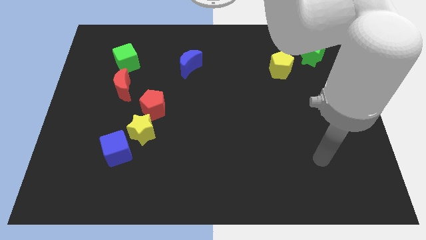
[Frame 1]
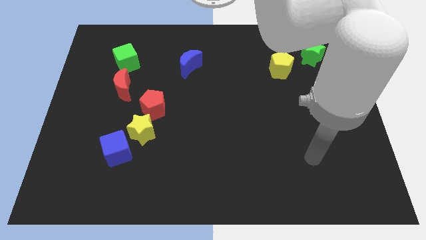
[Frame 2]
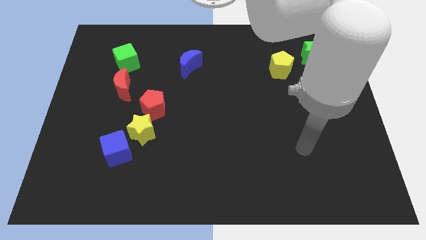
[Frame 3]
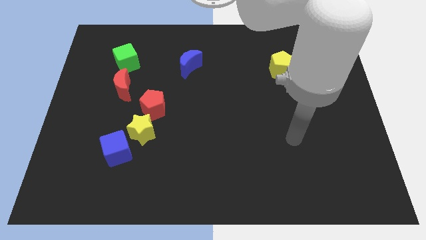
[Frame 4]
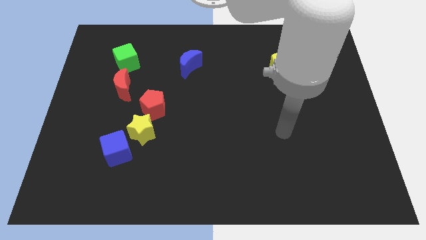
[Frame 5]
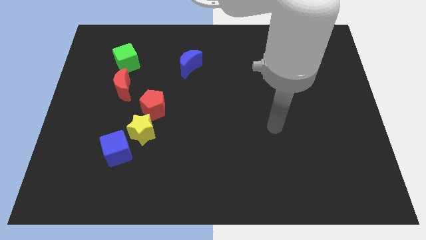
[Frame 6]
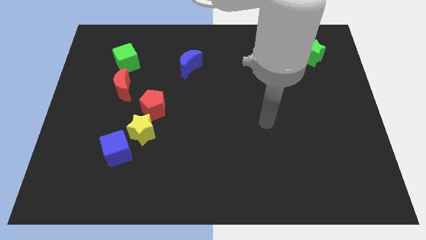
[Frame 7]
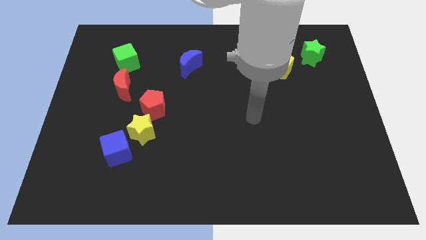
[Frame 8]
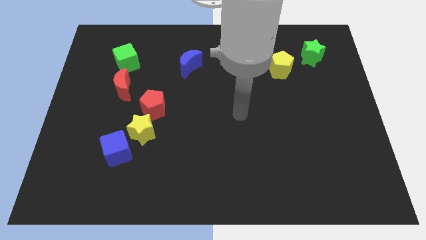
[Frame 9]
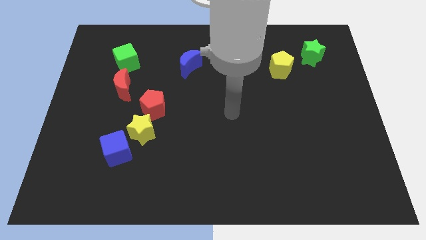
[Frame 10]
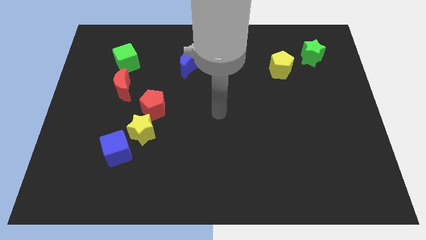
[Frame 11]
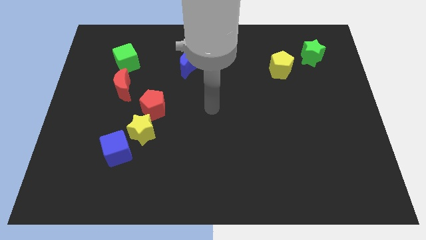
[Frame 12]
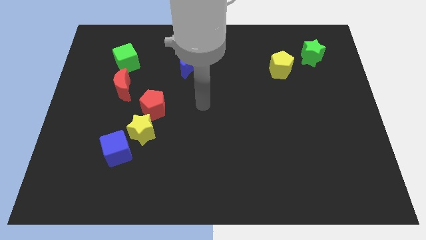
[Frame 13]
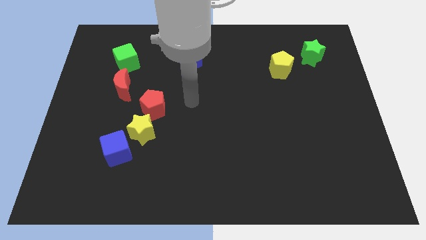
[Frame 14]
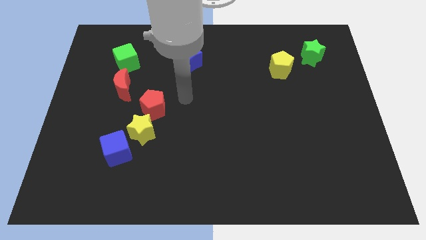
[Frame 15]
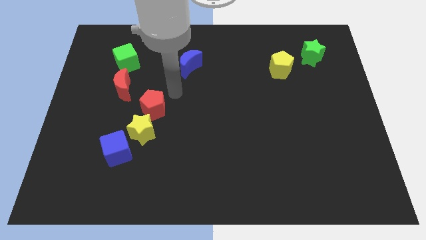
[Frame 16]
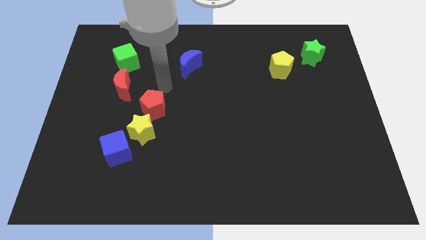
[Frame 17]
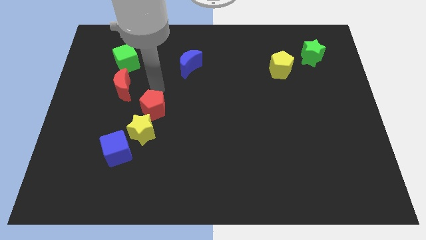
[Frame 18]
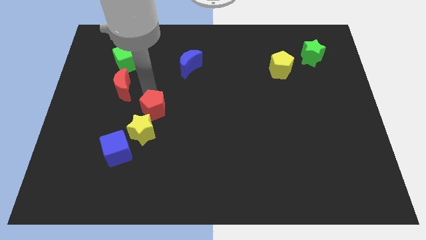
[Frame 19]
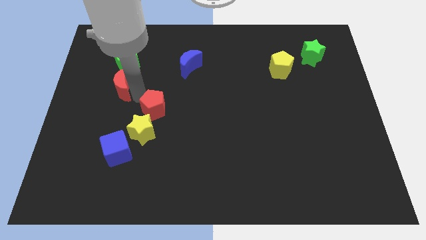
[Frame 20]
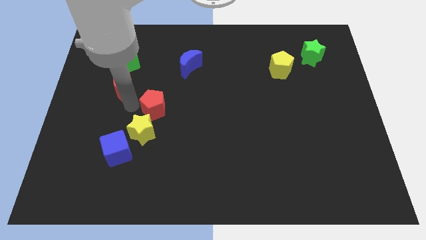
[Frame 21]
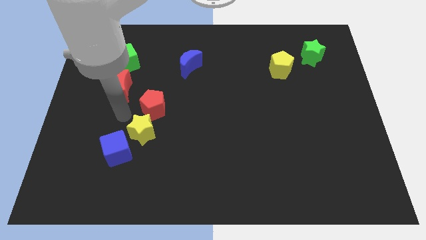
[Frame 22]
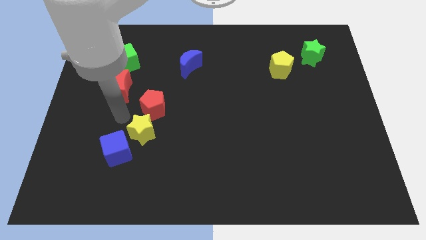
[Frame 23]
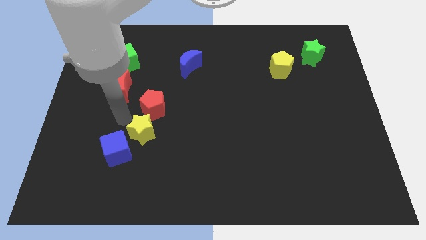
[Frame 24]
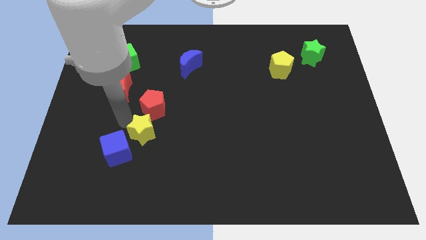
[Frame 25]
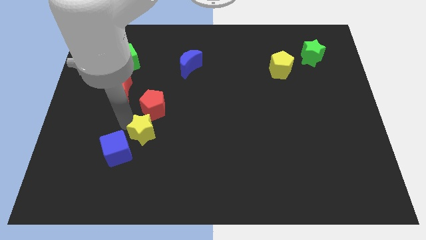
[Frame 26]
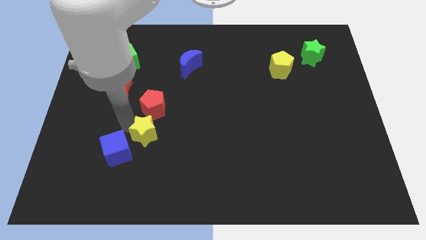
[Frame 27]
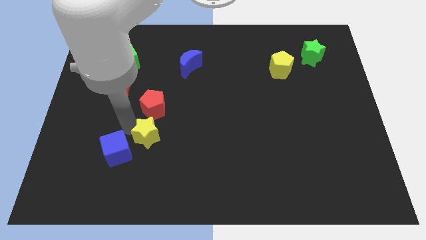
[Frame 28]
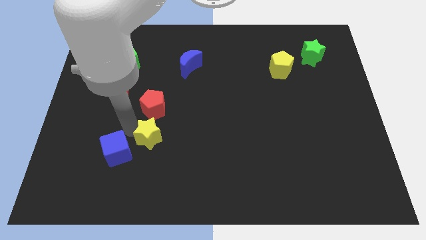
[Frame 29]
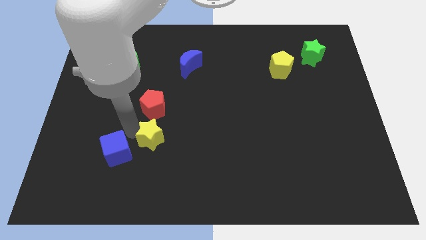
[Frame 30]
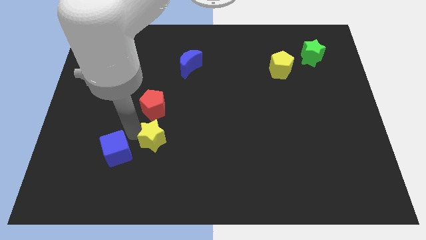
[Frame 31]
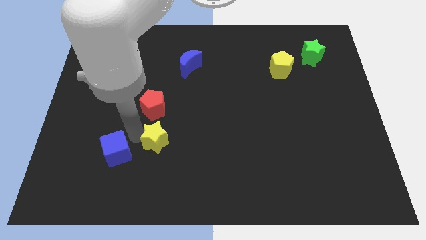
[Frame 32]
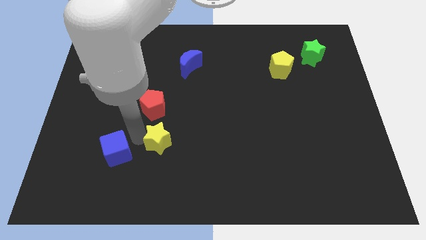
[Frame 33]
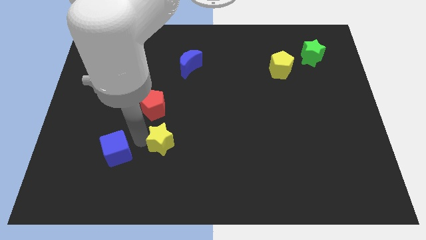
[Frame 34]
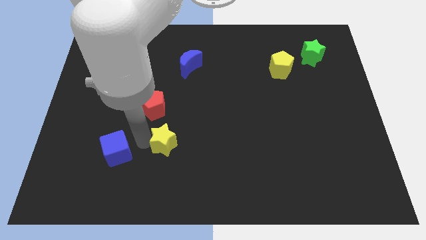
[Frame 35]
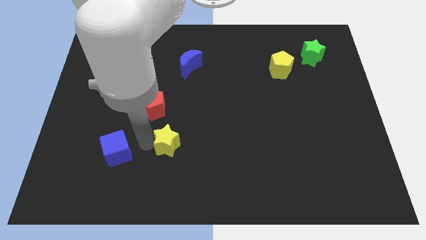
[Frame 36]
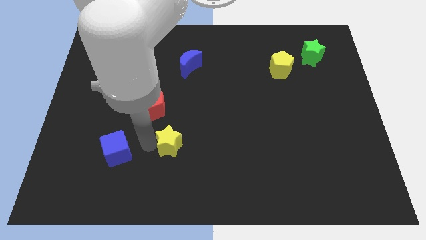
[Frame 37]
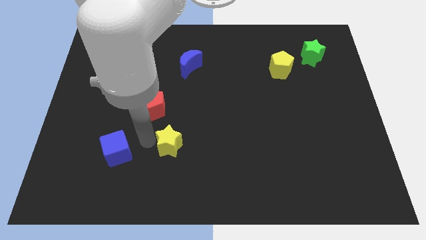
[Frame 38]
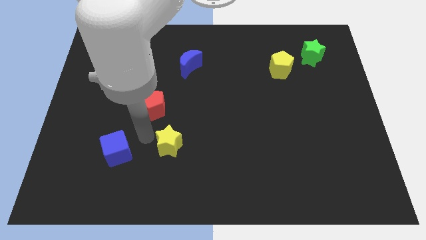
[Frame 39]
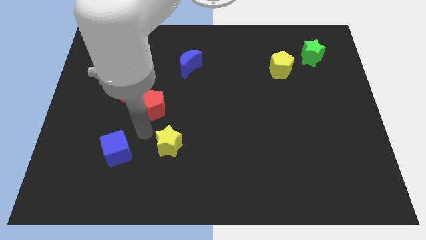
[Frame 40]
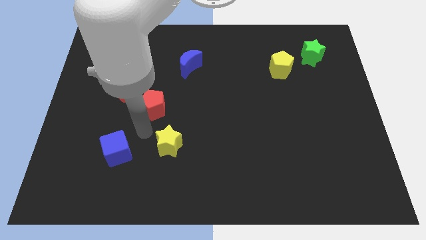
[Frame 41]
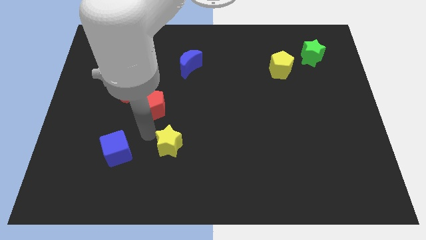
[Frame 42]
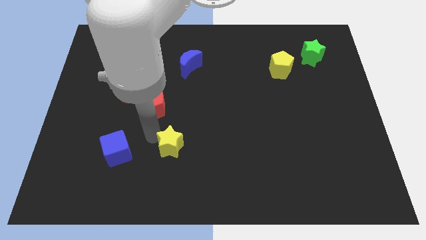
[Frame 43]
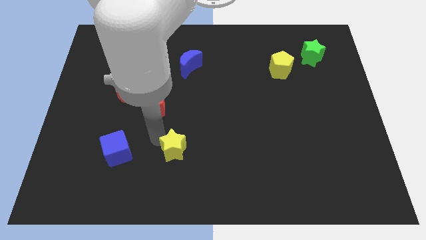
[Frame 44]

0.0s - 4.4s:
pull the yellow star apart from the red pentagon and blue cube

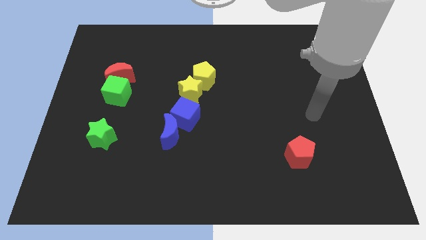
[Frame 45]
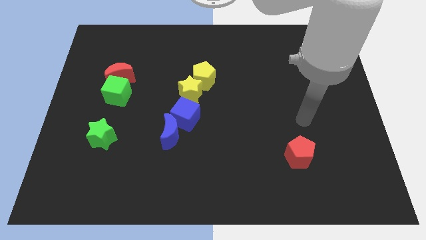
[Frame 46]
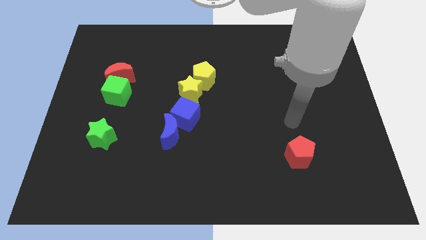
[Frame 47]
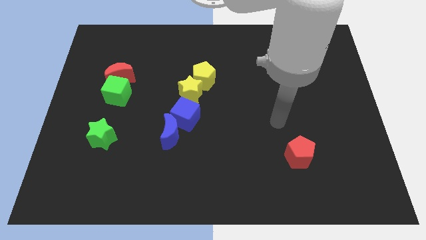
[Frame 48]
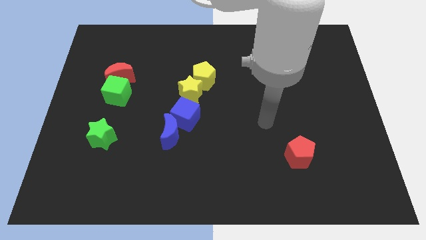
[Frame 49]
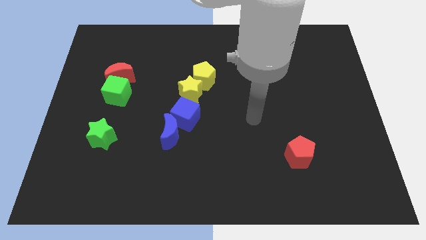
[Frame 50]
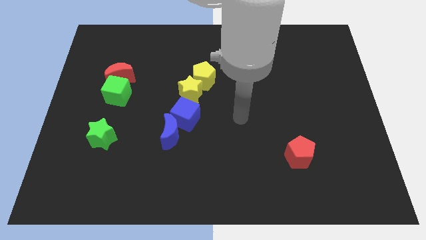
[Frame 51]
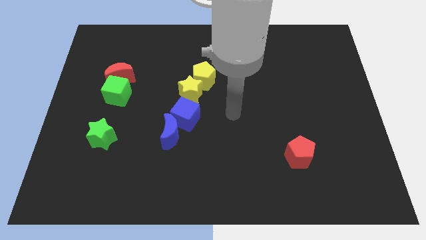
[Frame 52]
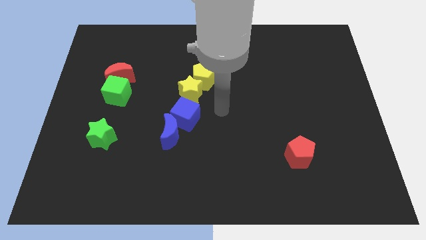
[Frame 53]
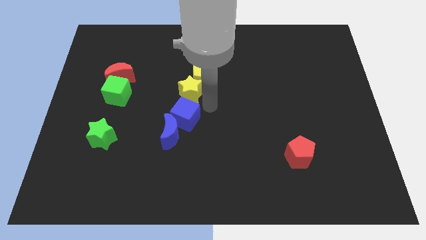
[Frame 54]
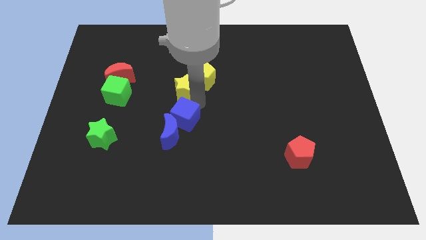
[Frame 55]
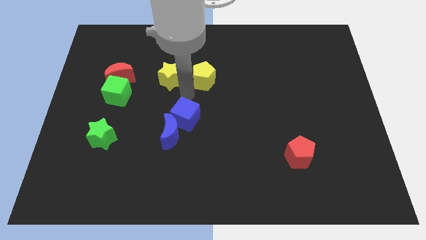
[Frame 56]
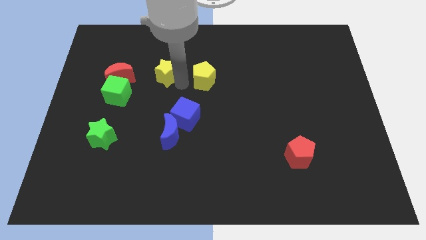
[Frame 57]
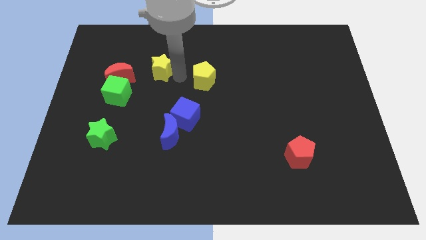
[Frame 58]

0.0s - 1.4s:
pull the yellow pentagon apart from the yellow star

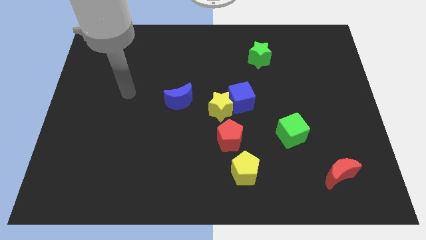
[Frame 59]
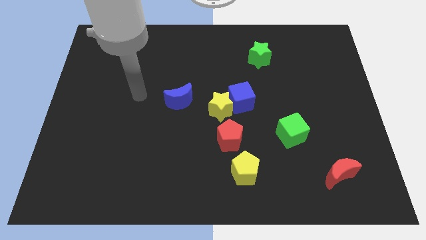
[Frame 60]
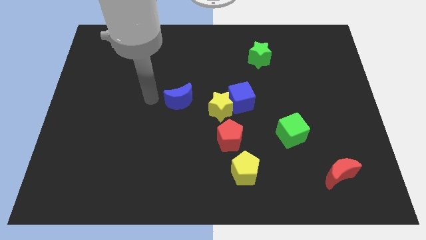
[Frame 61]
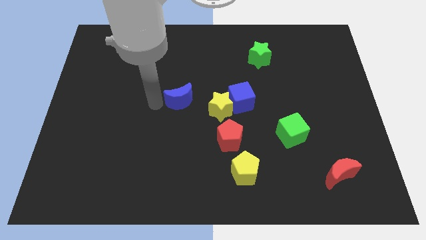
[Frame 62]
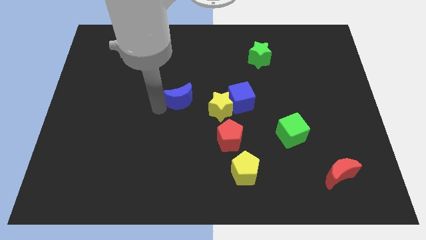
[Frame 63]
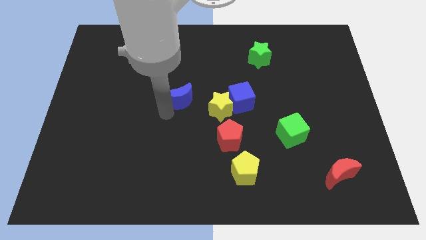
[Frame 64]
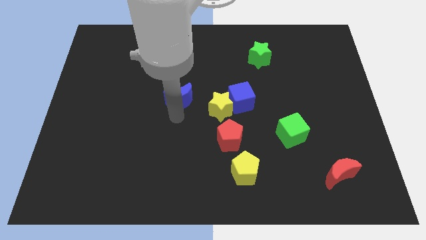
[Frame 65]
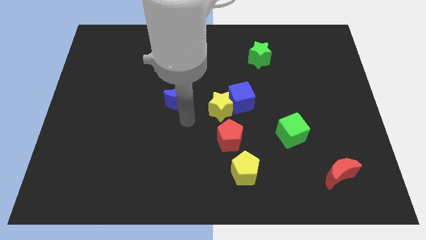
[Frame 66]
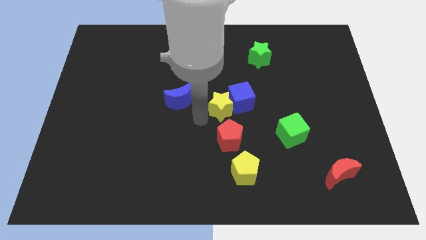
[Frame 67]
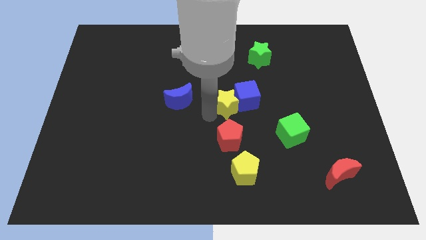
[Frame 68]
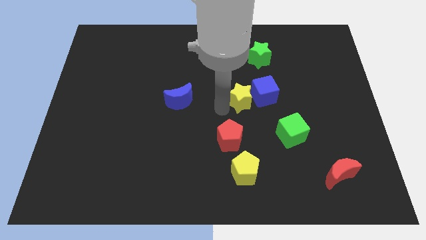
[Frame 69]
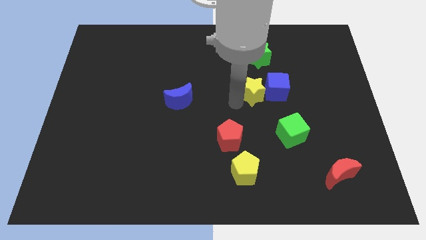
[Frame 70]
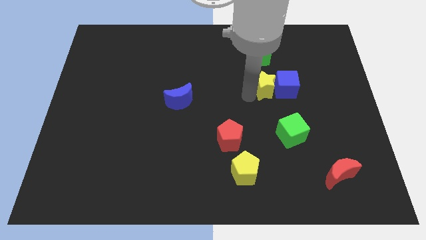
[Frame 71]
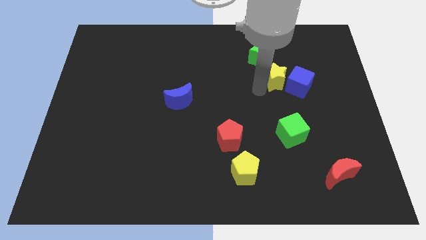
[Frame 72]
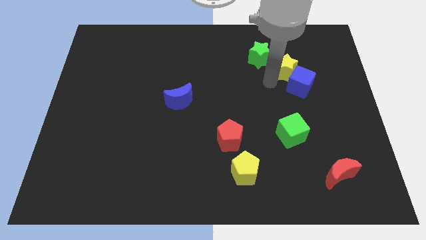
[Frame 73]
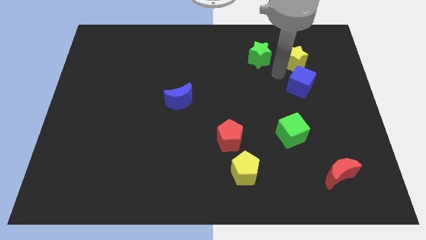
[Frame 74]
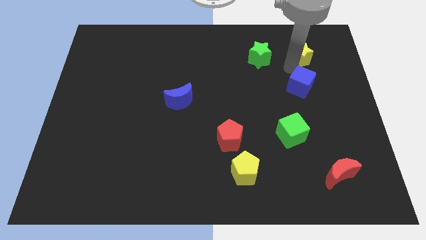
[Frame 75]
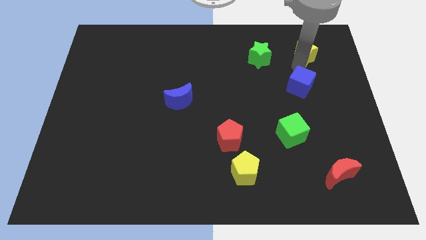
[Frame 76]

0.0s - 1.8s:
move the blue cube away from the yellow star

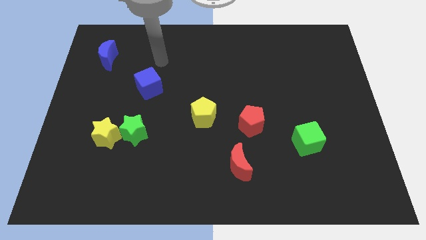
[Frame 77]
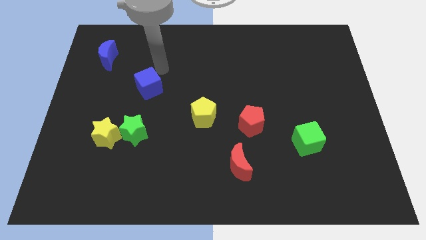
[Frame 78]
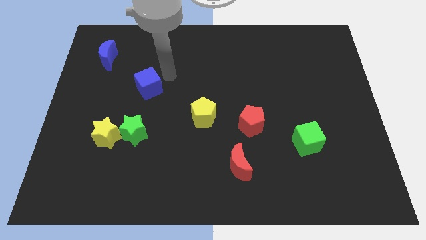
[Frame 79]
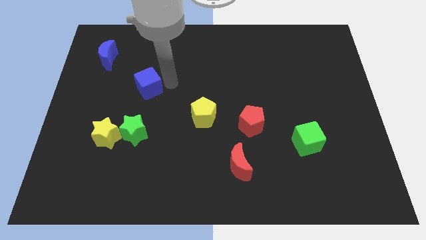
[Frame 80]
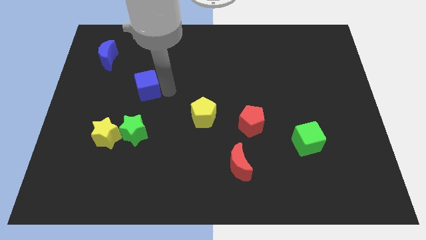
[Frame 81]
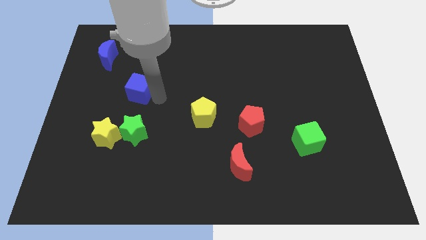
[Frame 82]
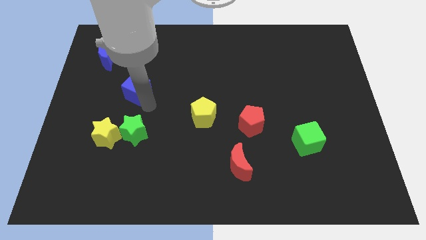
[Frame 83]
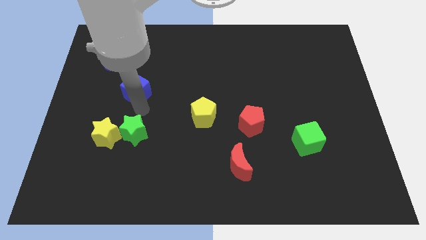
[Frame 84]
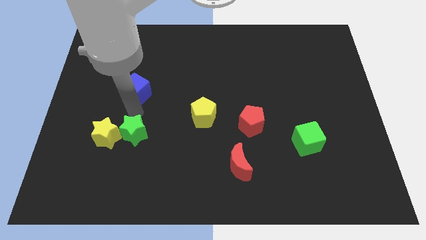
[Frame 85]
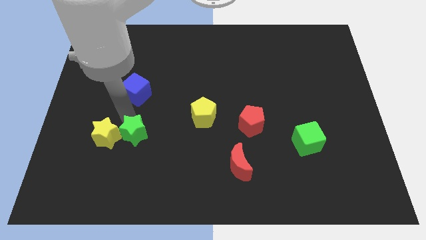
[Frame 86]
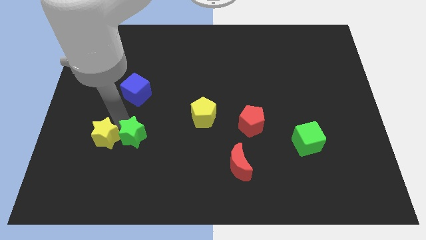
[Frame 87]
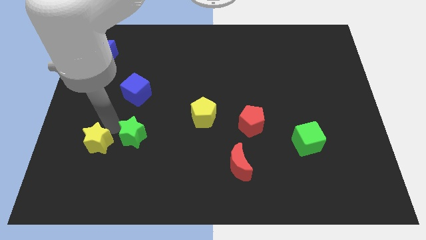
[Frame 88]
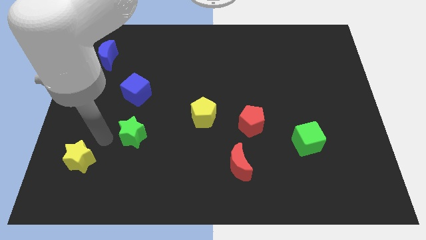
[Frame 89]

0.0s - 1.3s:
pull the green star apart from the yellow star

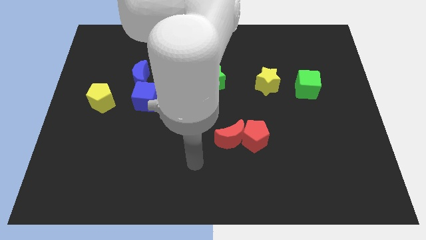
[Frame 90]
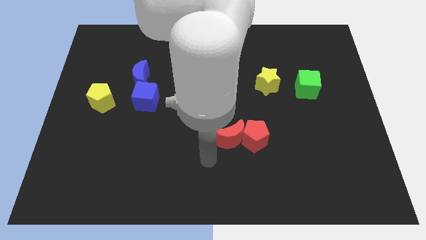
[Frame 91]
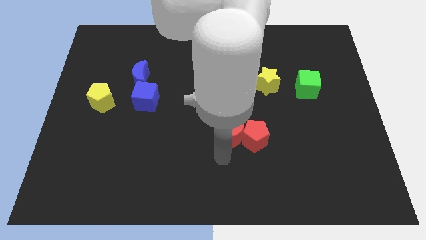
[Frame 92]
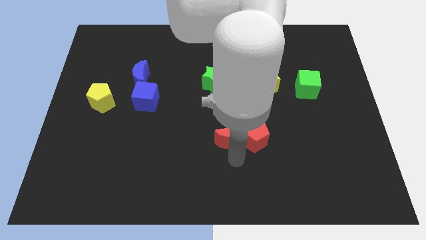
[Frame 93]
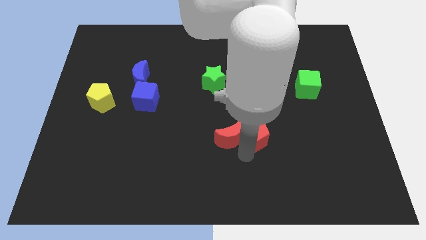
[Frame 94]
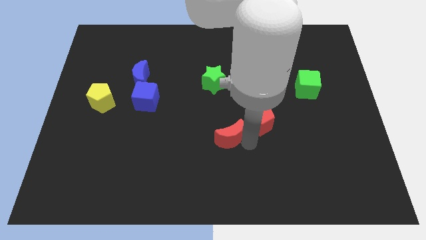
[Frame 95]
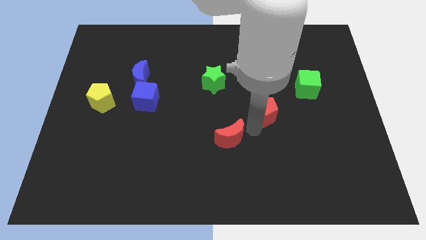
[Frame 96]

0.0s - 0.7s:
pull the red moon apart from the red pentagon
